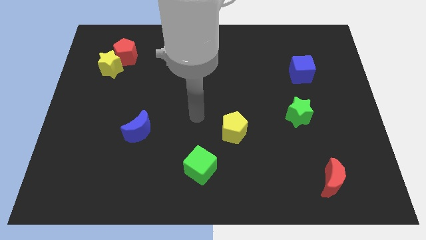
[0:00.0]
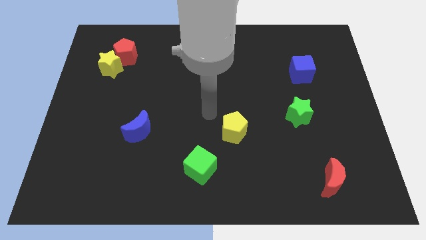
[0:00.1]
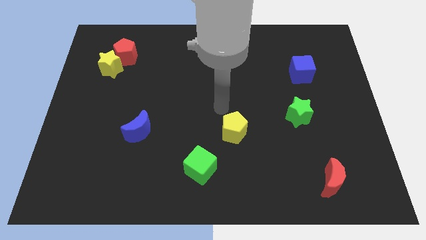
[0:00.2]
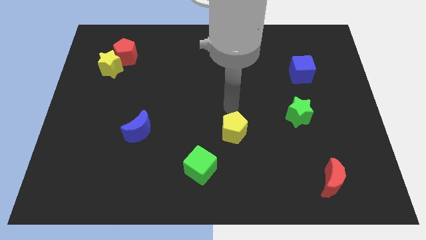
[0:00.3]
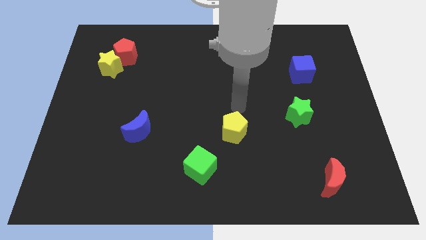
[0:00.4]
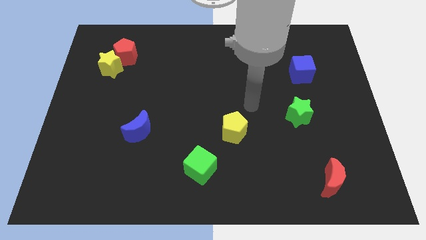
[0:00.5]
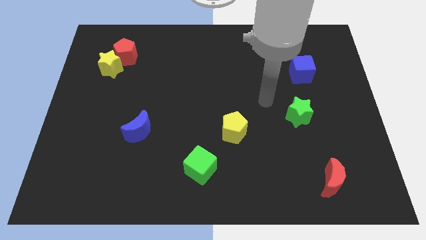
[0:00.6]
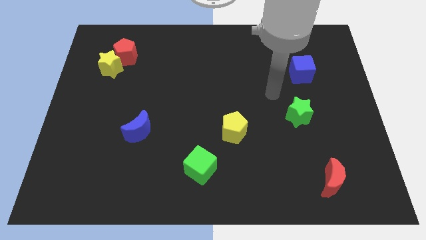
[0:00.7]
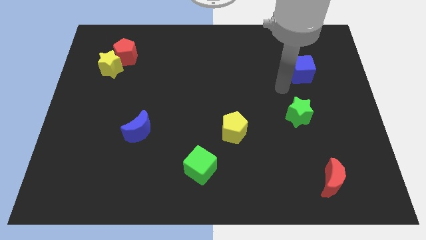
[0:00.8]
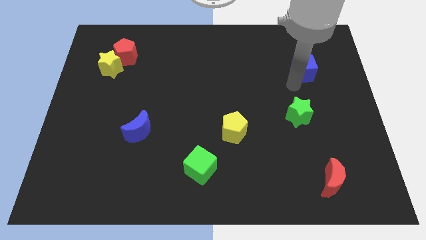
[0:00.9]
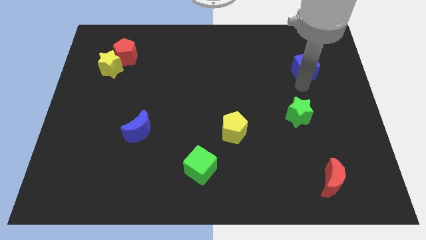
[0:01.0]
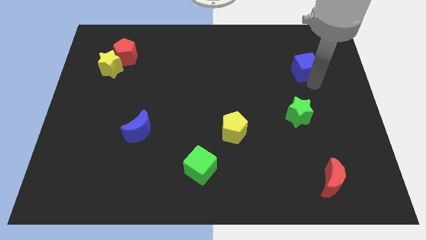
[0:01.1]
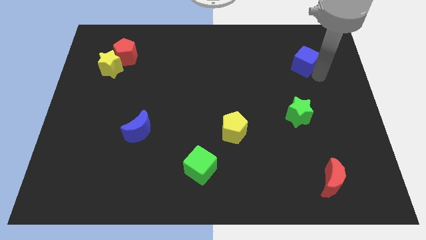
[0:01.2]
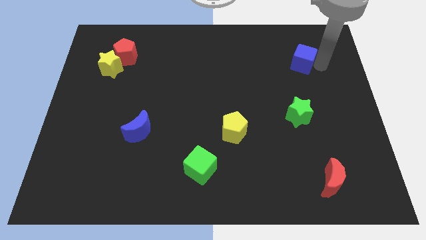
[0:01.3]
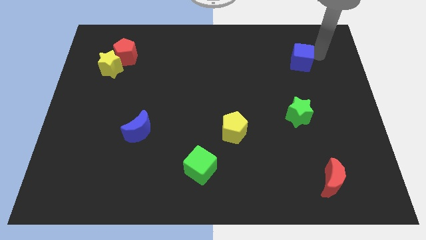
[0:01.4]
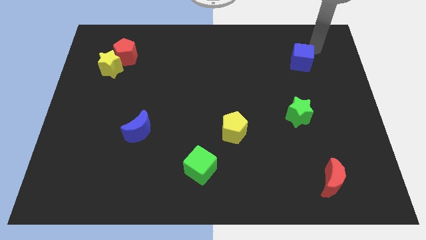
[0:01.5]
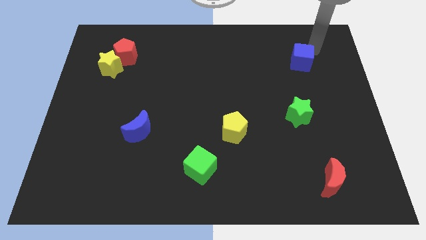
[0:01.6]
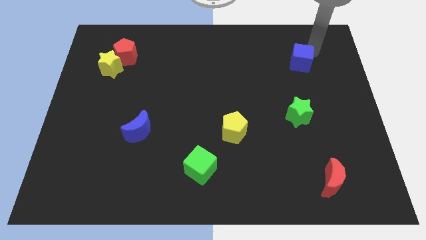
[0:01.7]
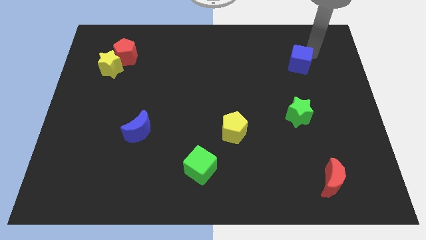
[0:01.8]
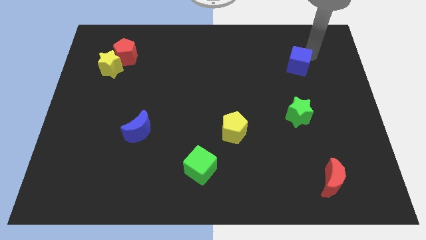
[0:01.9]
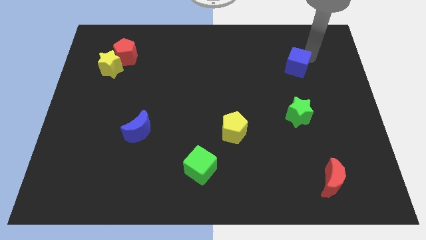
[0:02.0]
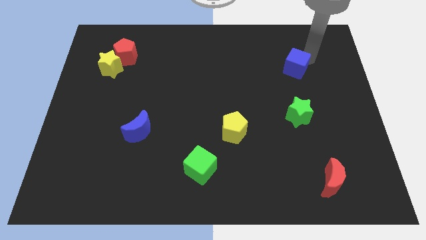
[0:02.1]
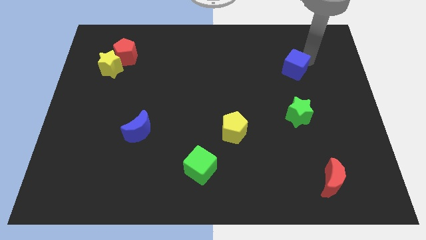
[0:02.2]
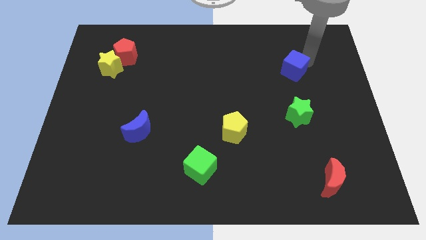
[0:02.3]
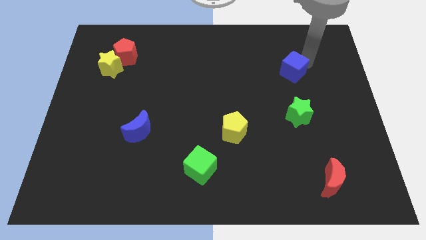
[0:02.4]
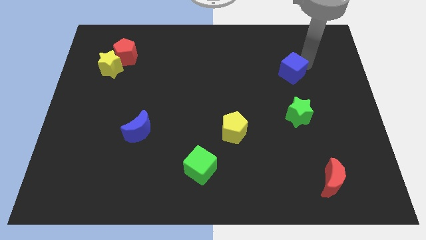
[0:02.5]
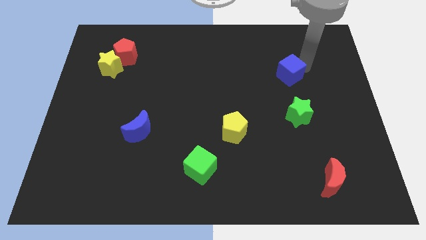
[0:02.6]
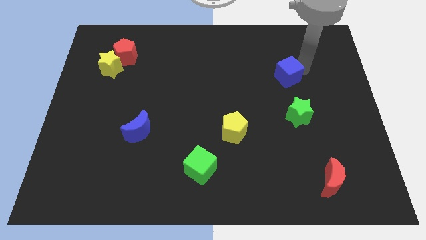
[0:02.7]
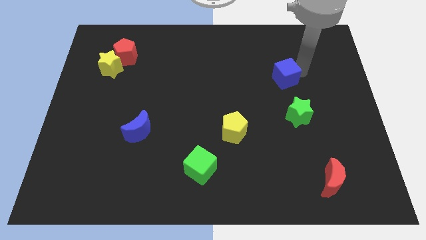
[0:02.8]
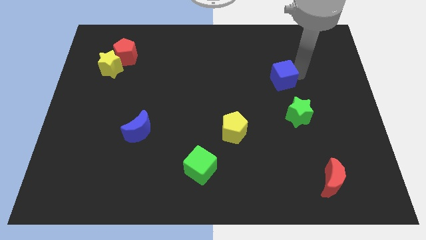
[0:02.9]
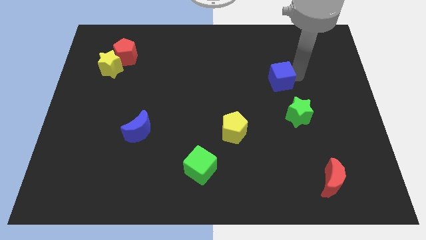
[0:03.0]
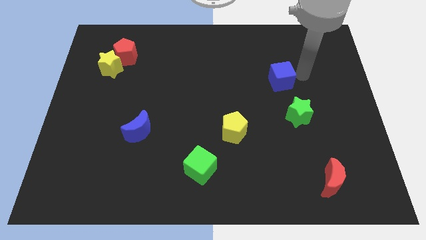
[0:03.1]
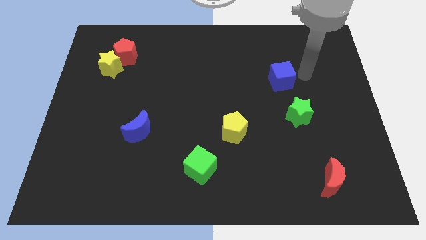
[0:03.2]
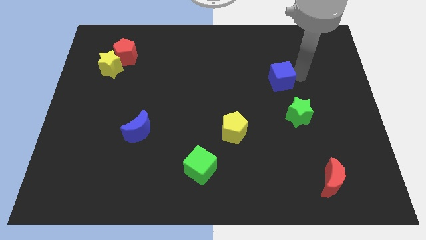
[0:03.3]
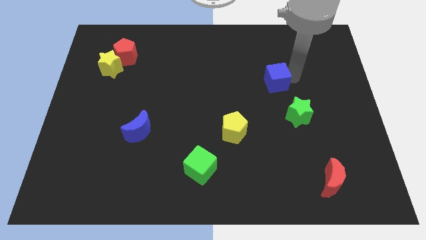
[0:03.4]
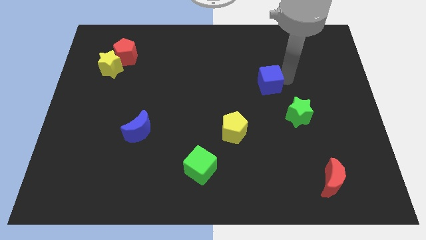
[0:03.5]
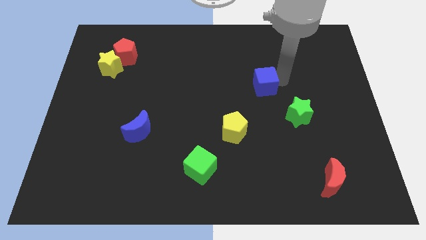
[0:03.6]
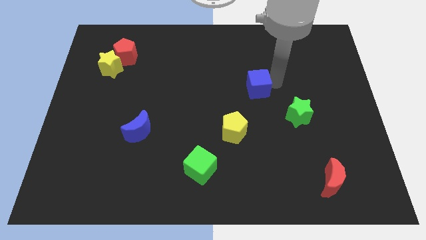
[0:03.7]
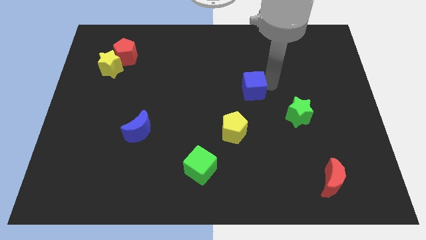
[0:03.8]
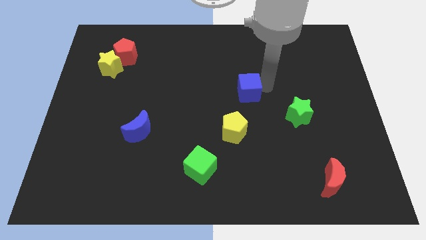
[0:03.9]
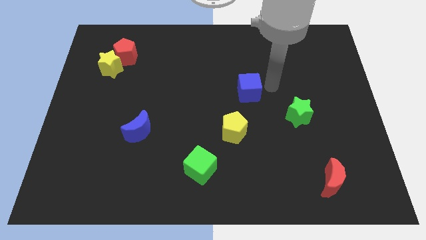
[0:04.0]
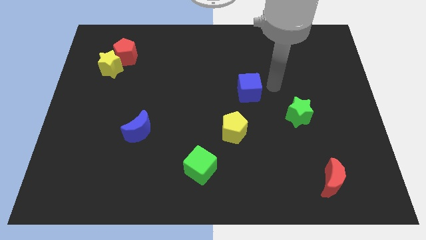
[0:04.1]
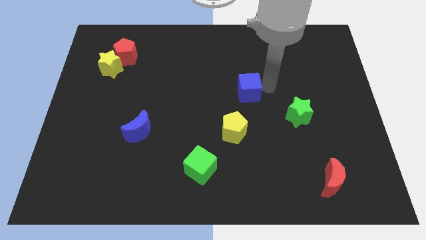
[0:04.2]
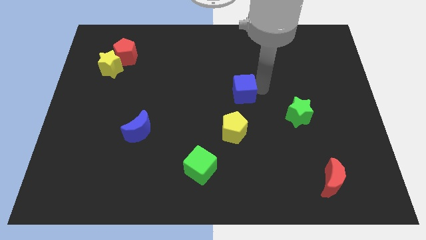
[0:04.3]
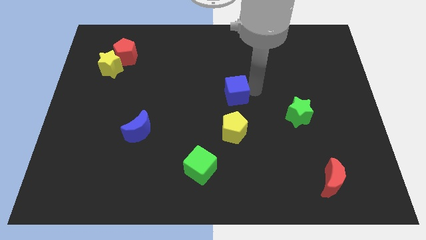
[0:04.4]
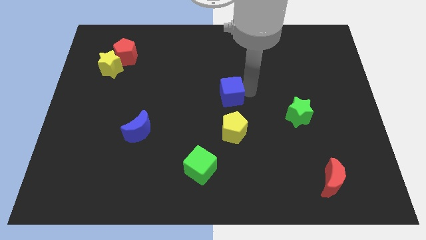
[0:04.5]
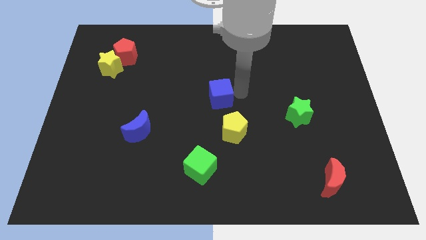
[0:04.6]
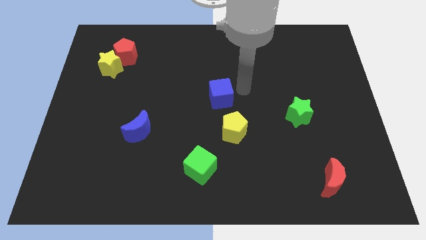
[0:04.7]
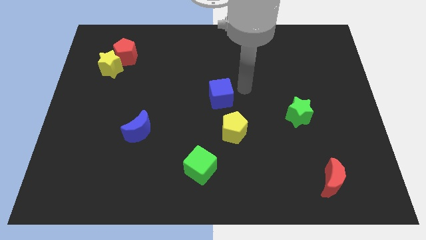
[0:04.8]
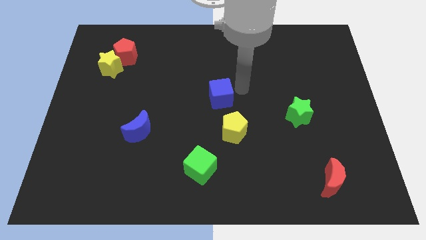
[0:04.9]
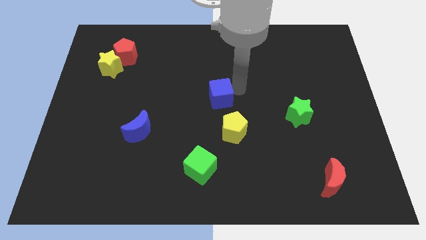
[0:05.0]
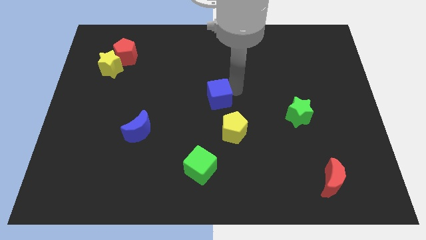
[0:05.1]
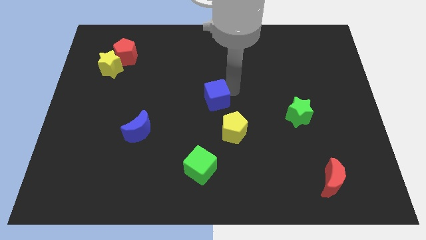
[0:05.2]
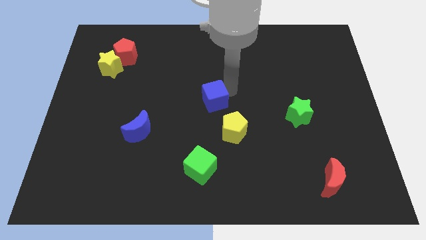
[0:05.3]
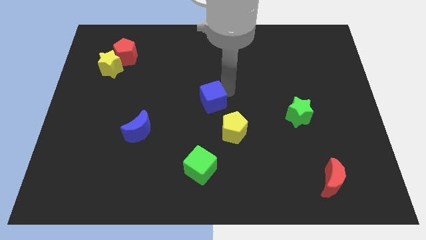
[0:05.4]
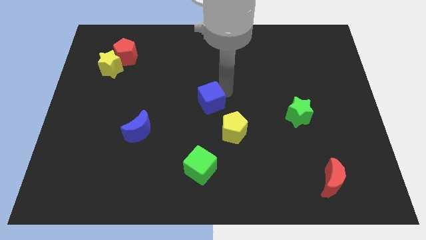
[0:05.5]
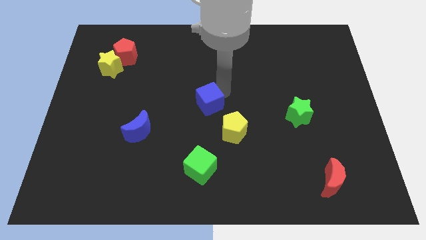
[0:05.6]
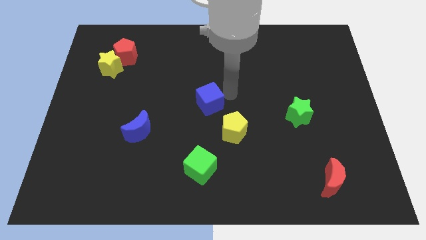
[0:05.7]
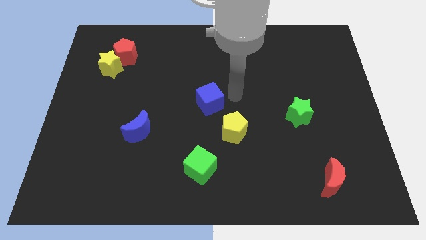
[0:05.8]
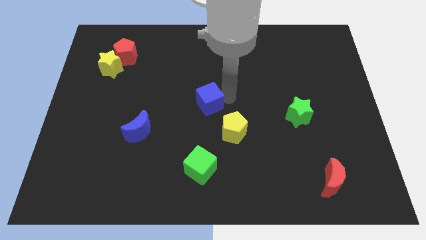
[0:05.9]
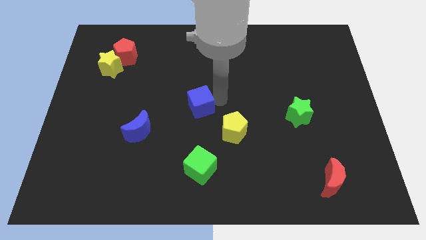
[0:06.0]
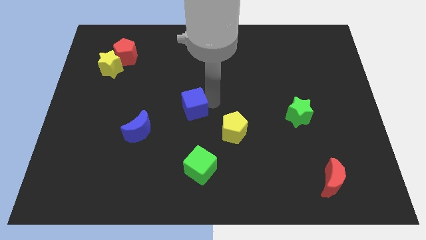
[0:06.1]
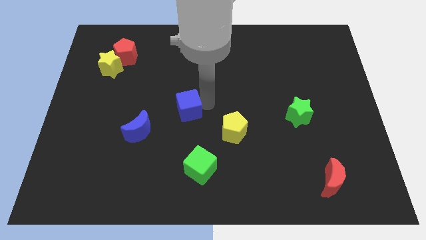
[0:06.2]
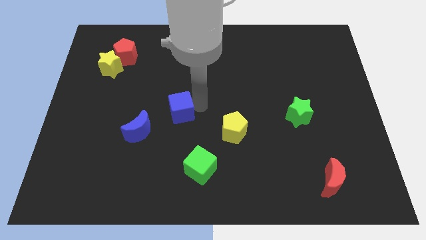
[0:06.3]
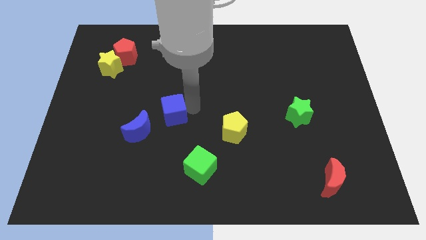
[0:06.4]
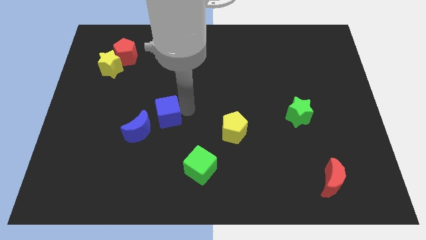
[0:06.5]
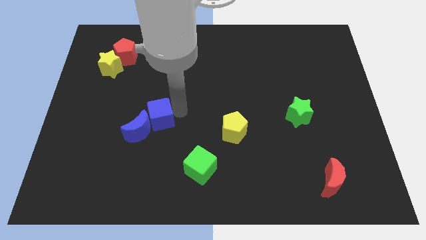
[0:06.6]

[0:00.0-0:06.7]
move the blue cube next to the blue moon

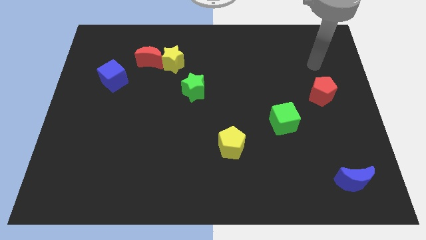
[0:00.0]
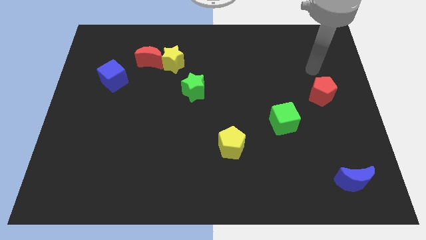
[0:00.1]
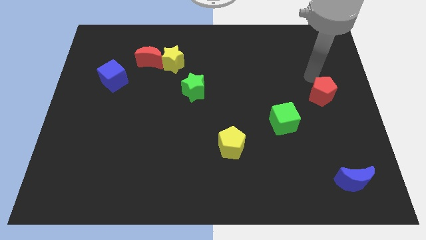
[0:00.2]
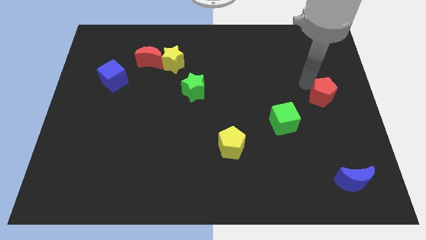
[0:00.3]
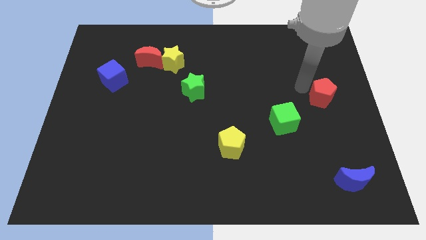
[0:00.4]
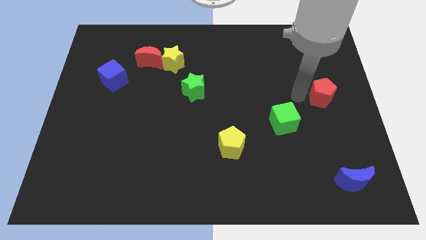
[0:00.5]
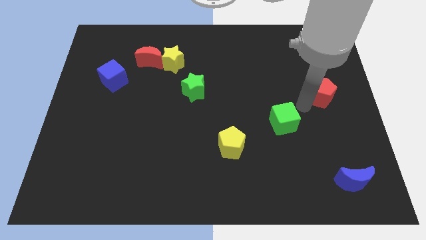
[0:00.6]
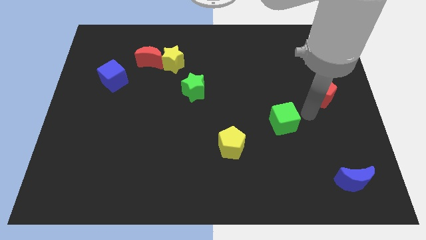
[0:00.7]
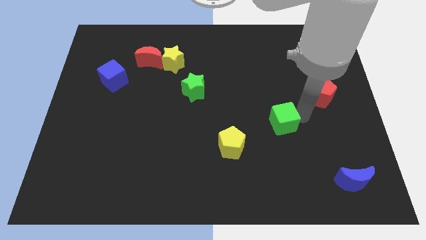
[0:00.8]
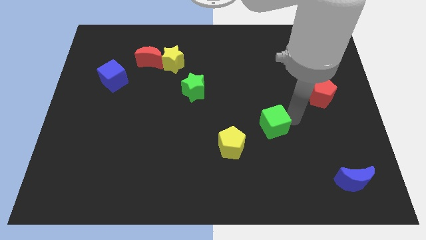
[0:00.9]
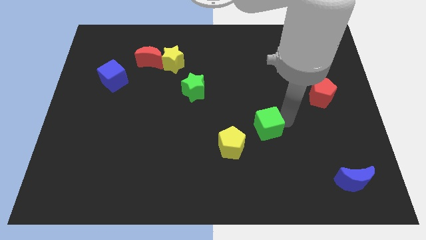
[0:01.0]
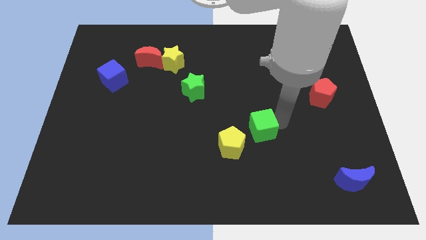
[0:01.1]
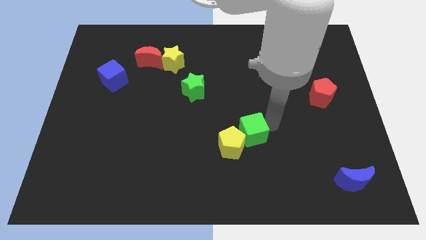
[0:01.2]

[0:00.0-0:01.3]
slide the green cube next to the yellow pentagon
